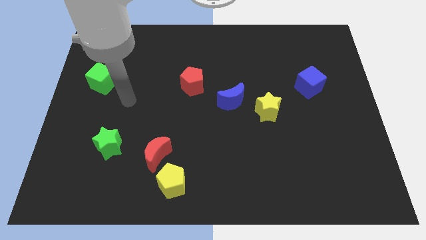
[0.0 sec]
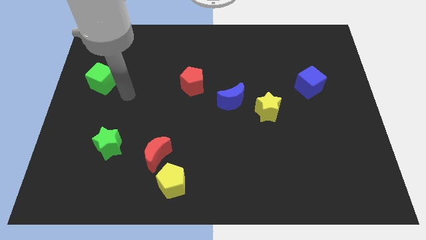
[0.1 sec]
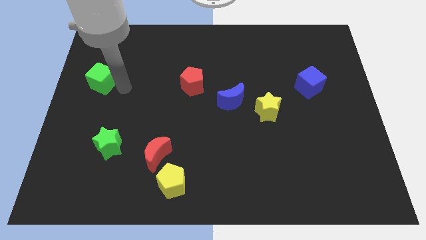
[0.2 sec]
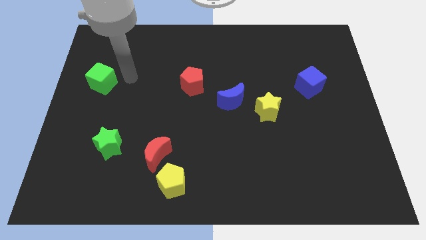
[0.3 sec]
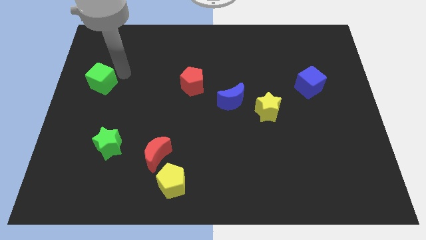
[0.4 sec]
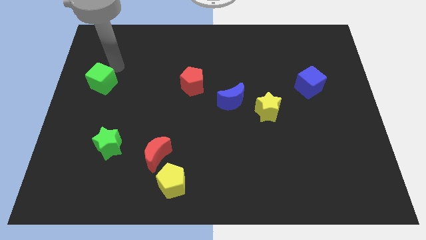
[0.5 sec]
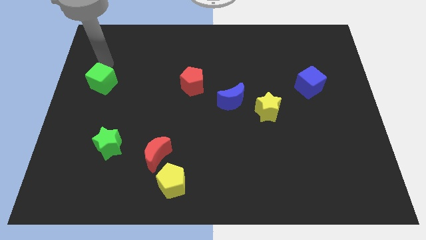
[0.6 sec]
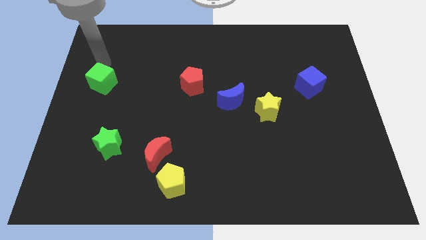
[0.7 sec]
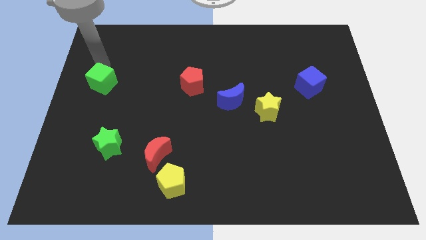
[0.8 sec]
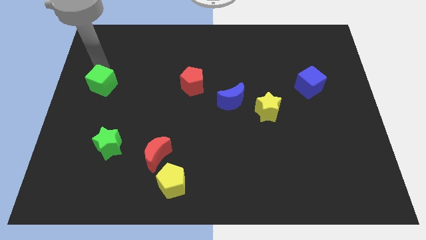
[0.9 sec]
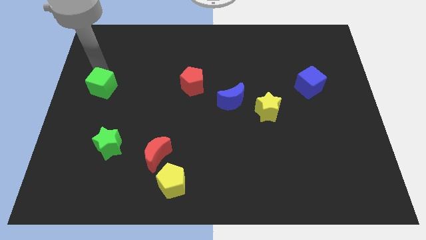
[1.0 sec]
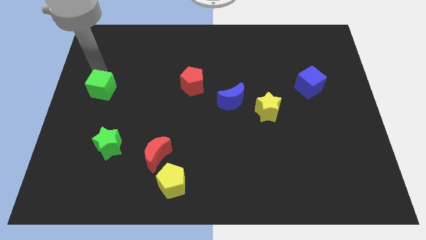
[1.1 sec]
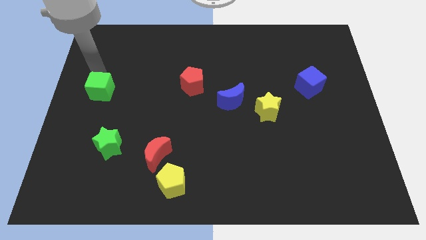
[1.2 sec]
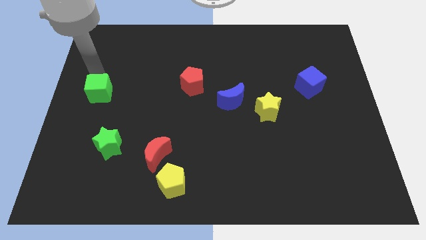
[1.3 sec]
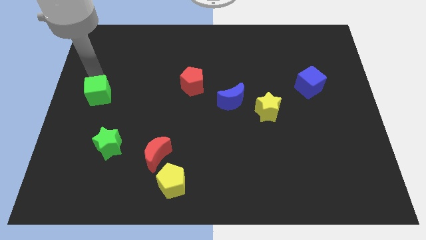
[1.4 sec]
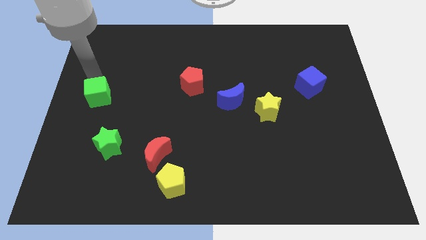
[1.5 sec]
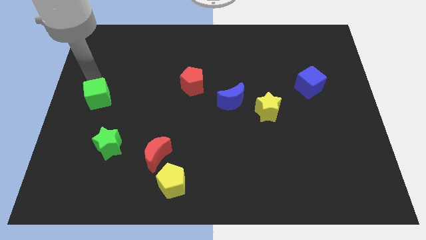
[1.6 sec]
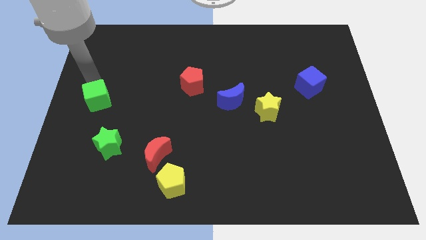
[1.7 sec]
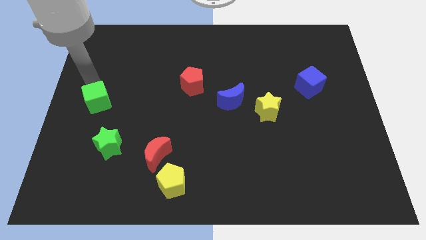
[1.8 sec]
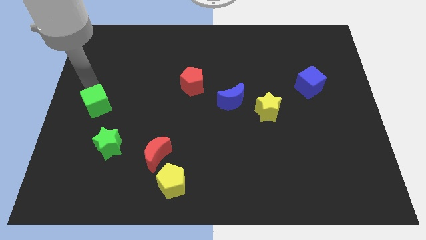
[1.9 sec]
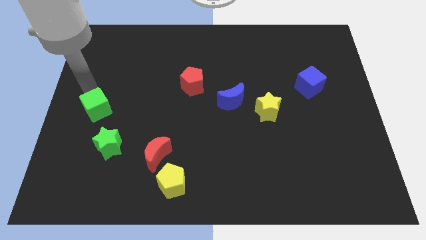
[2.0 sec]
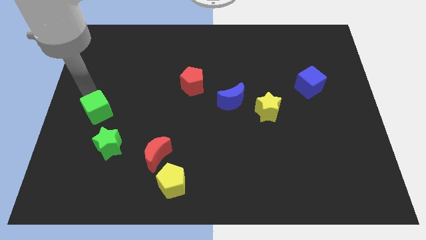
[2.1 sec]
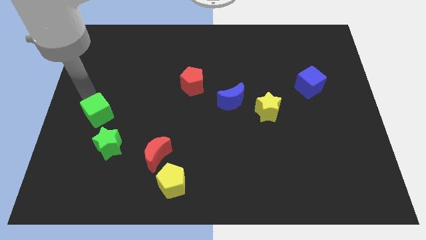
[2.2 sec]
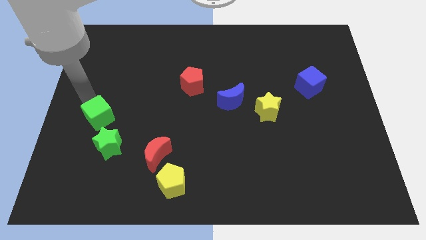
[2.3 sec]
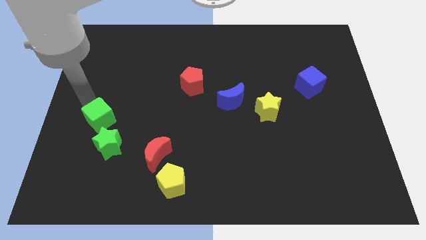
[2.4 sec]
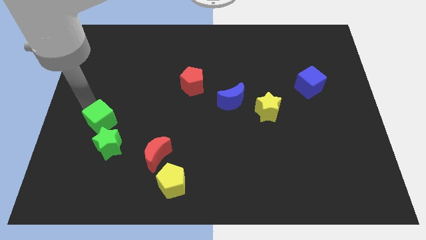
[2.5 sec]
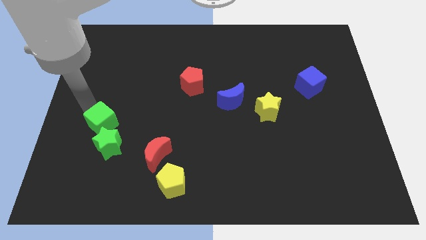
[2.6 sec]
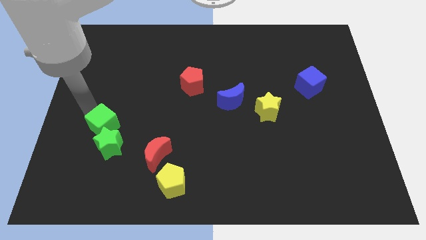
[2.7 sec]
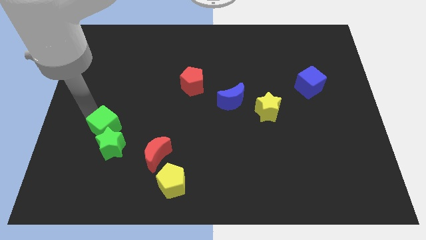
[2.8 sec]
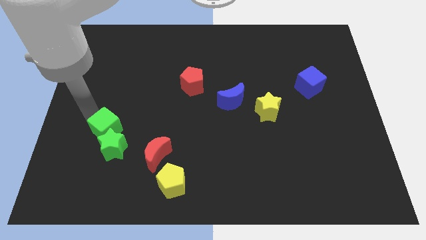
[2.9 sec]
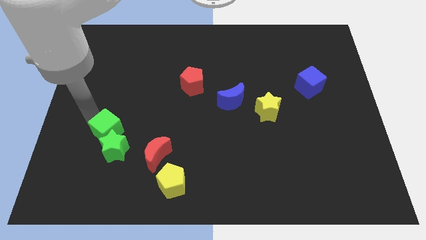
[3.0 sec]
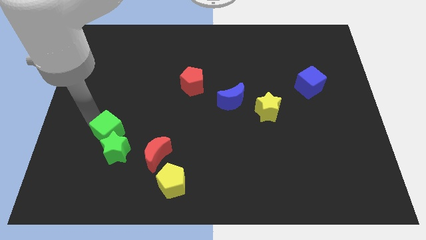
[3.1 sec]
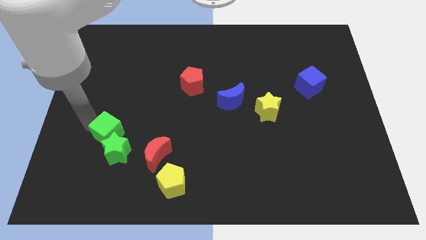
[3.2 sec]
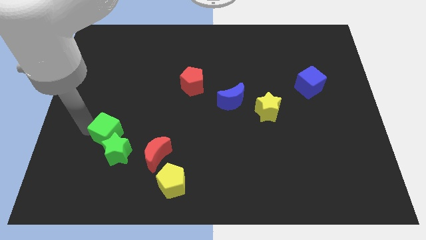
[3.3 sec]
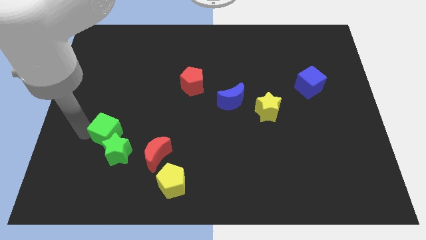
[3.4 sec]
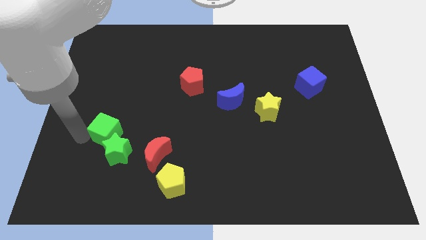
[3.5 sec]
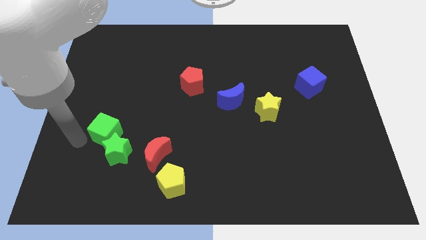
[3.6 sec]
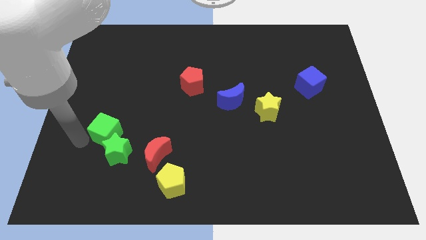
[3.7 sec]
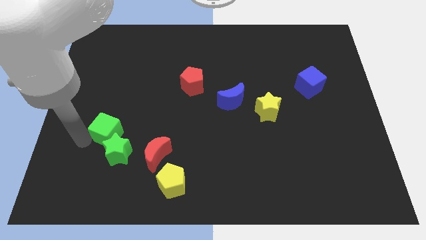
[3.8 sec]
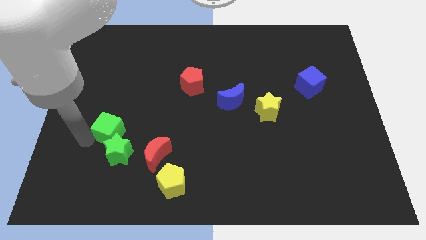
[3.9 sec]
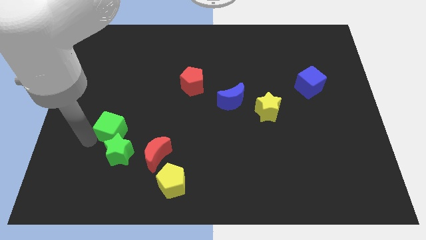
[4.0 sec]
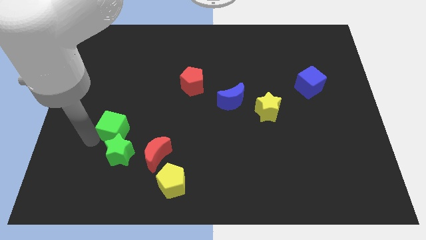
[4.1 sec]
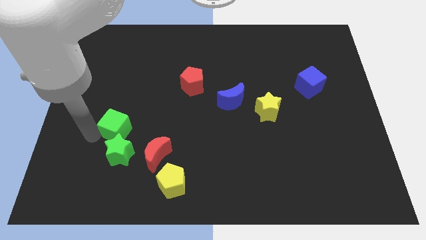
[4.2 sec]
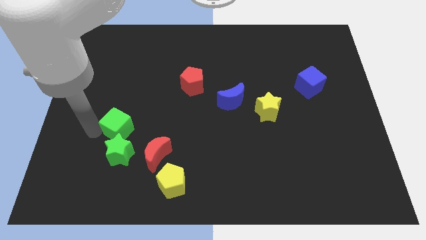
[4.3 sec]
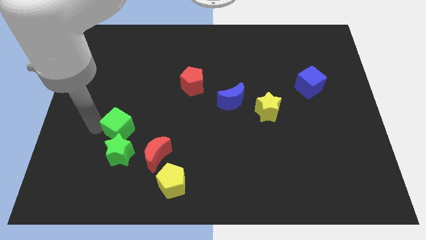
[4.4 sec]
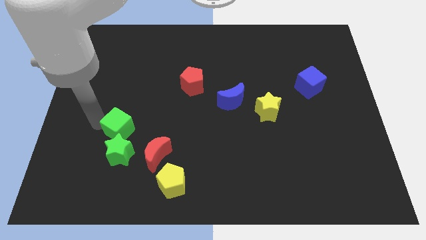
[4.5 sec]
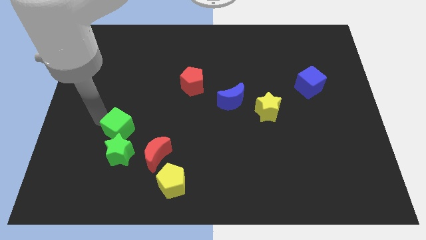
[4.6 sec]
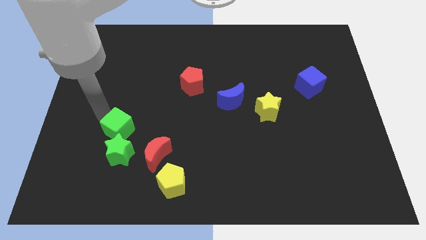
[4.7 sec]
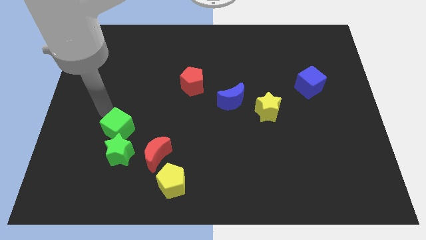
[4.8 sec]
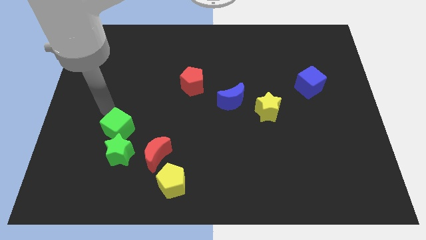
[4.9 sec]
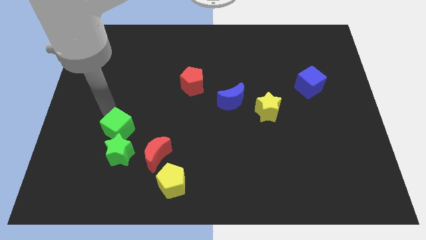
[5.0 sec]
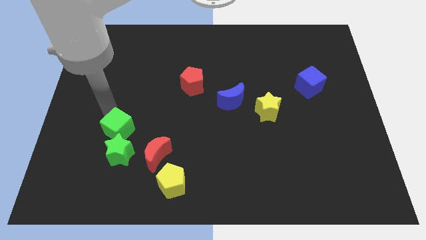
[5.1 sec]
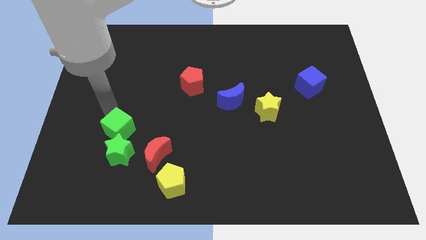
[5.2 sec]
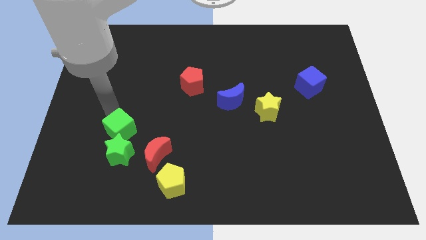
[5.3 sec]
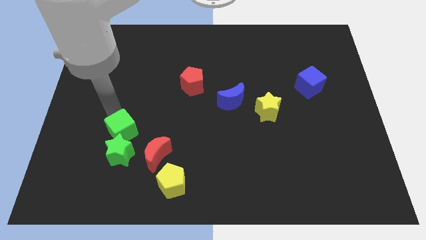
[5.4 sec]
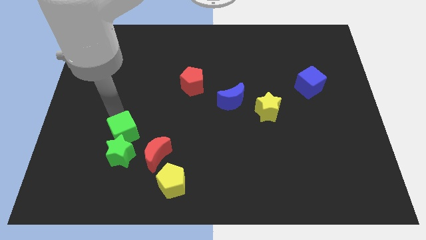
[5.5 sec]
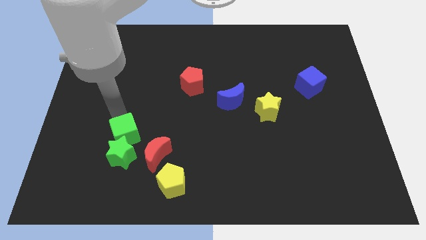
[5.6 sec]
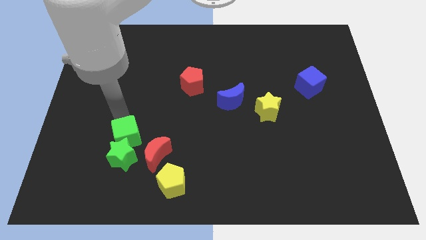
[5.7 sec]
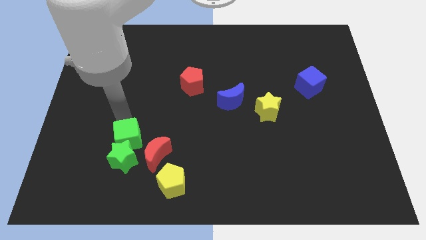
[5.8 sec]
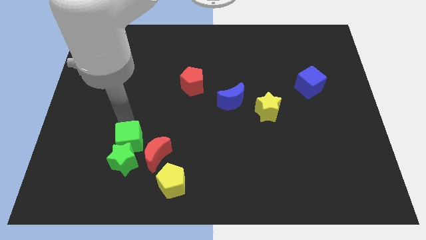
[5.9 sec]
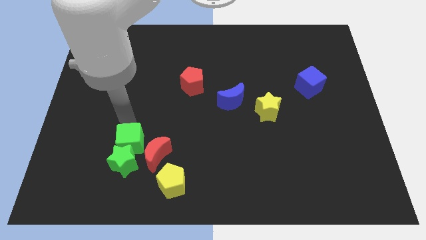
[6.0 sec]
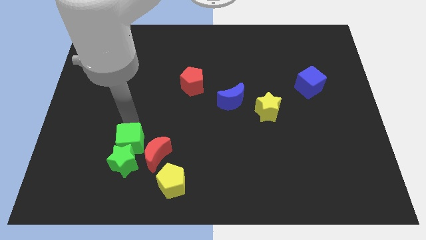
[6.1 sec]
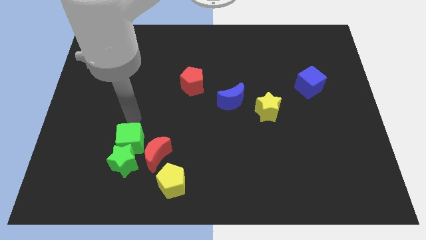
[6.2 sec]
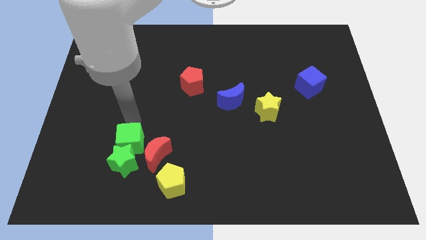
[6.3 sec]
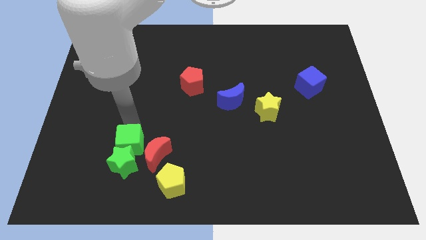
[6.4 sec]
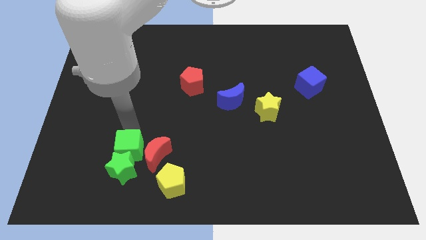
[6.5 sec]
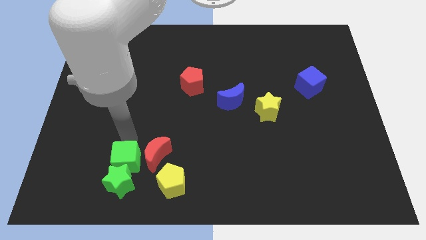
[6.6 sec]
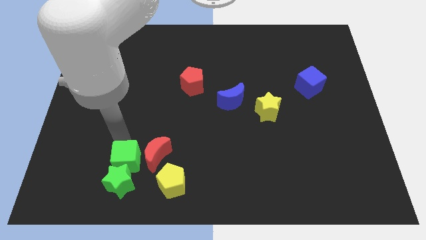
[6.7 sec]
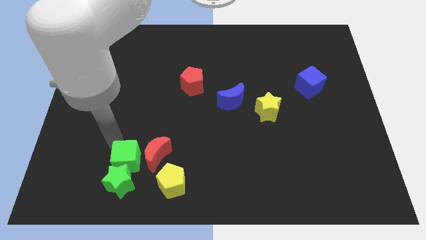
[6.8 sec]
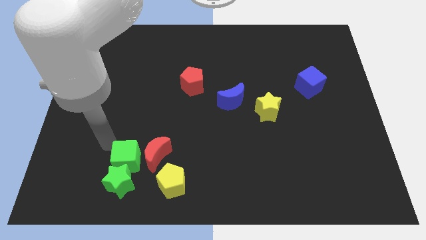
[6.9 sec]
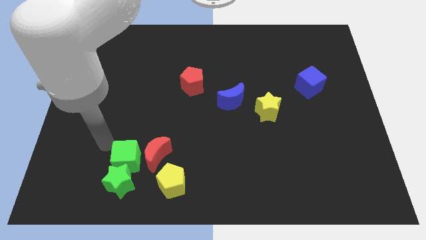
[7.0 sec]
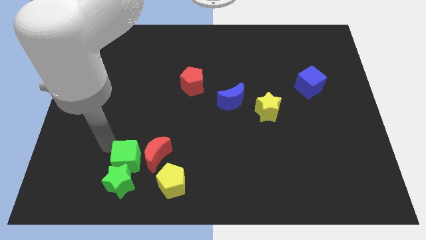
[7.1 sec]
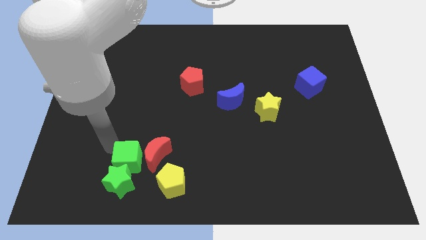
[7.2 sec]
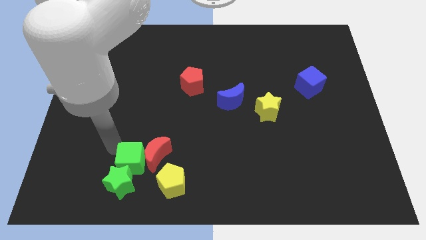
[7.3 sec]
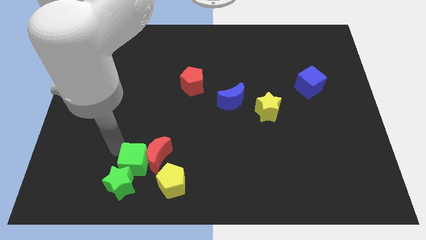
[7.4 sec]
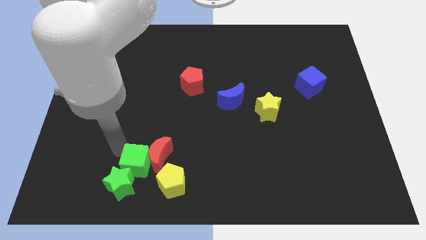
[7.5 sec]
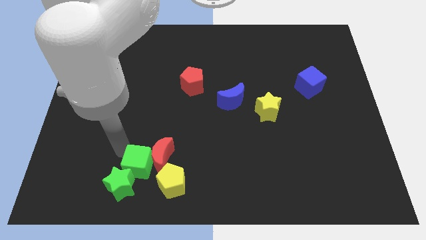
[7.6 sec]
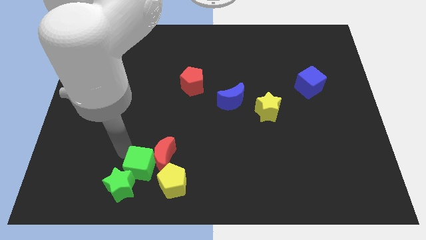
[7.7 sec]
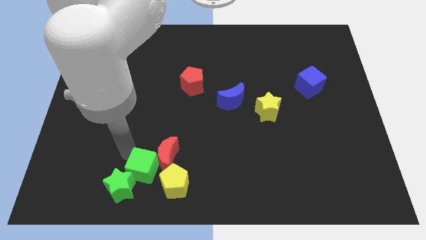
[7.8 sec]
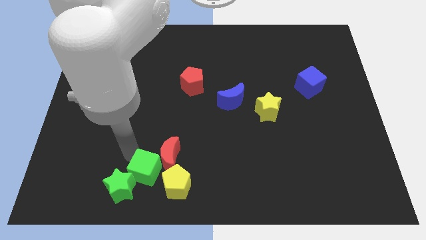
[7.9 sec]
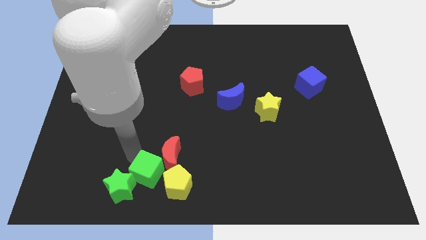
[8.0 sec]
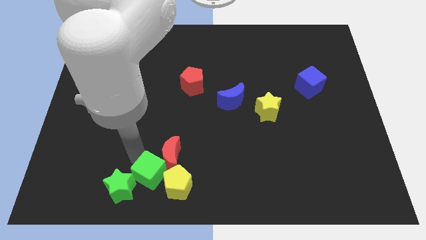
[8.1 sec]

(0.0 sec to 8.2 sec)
slide the green cube towards the yellow pentagon
